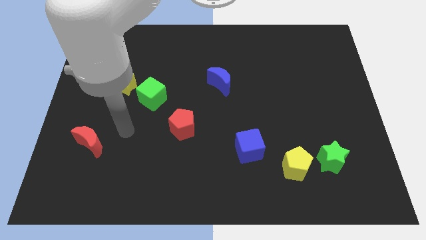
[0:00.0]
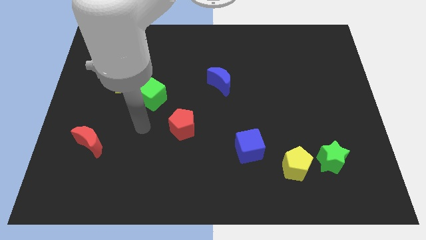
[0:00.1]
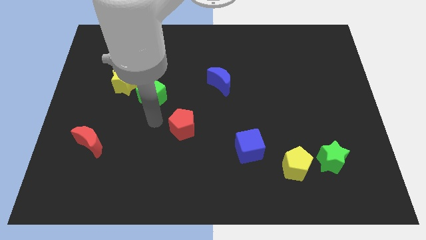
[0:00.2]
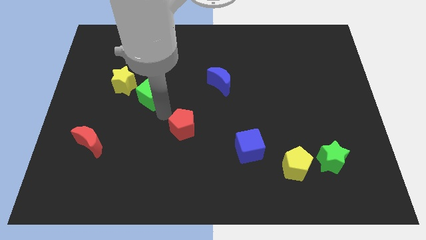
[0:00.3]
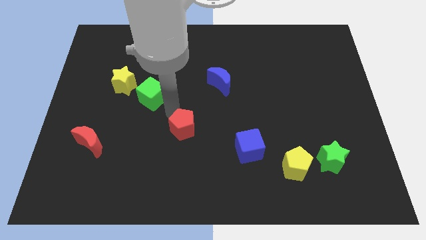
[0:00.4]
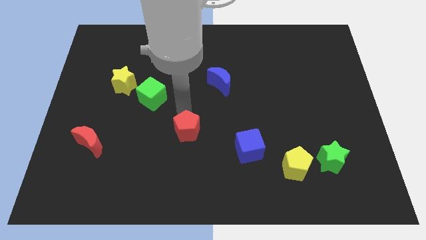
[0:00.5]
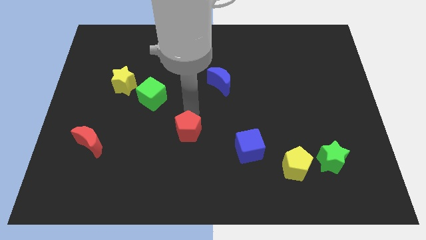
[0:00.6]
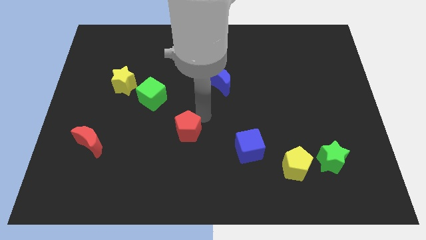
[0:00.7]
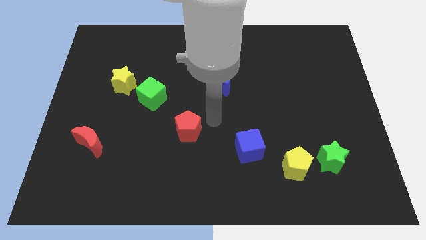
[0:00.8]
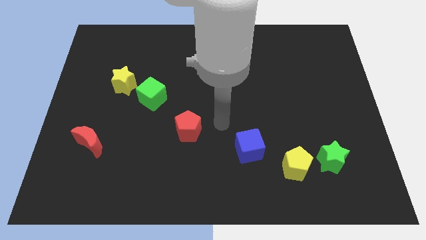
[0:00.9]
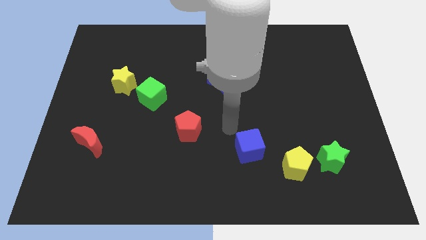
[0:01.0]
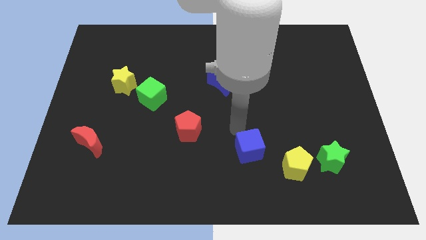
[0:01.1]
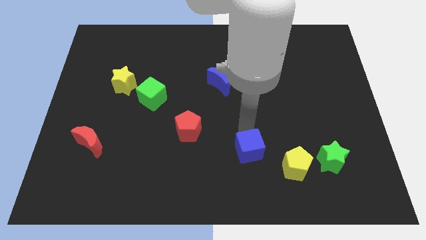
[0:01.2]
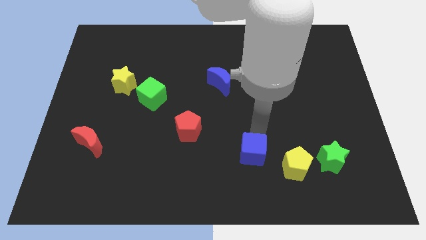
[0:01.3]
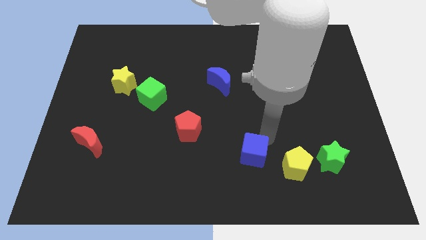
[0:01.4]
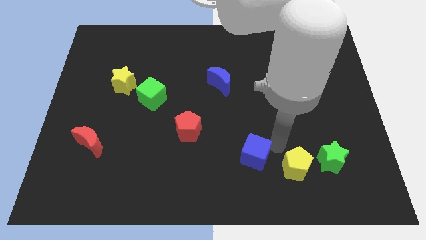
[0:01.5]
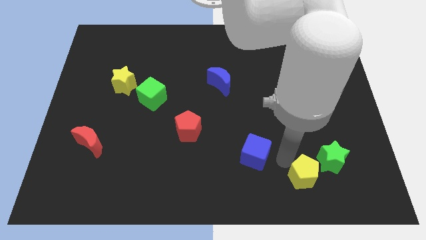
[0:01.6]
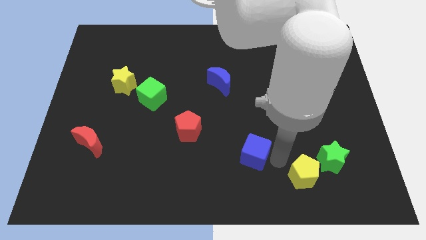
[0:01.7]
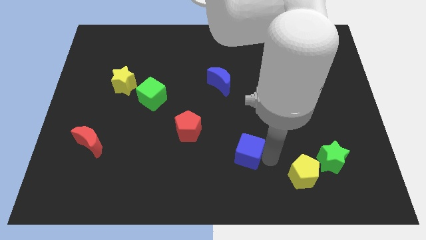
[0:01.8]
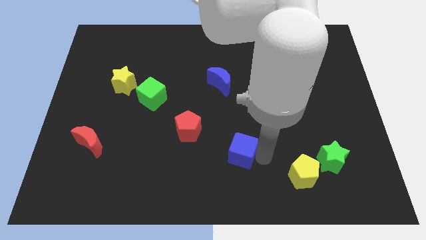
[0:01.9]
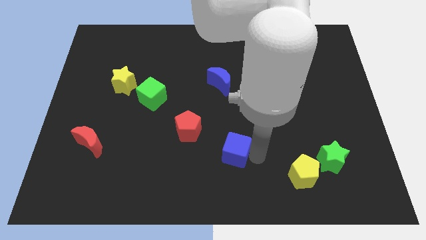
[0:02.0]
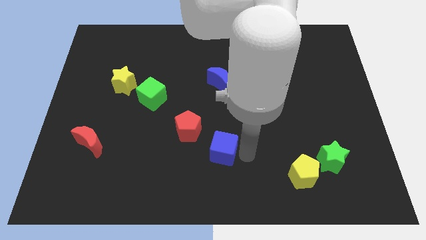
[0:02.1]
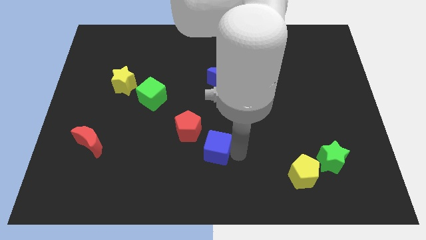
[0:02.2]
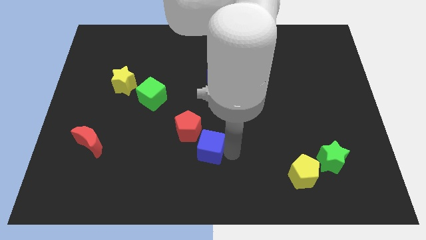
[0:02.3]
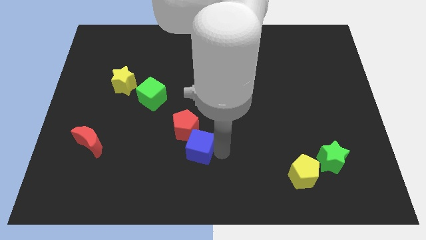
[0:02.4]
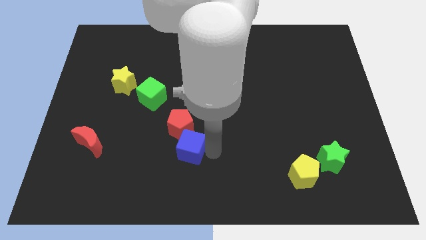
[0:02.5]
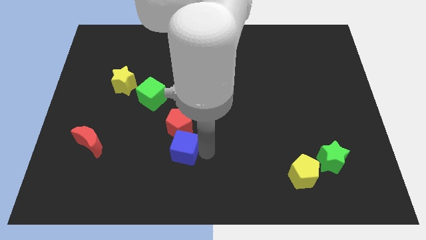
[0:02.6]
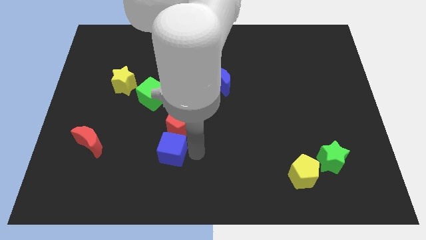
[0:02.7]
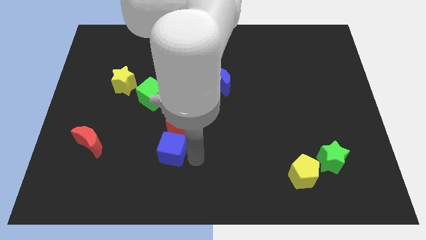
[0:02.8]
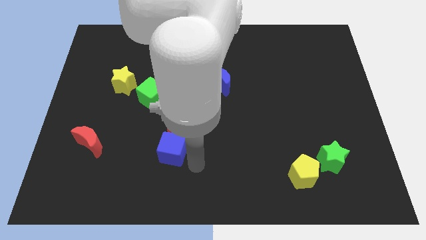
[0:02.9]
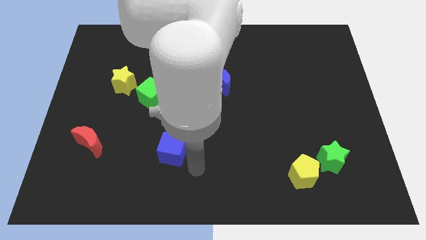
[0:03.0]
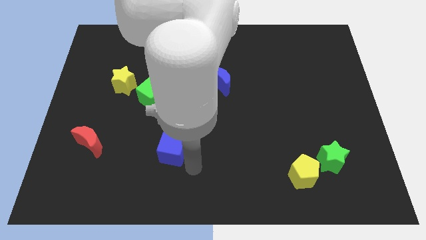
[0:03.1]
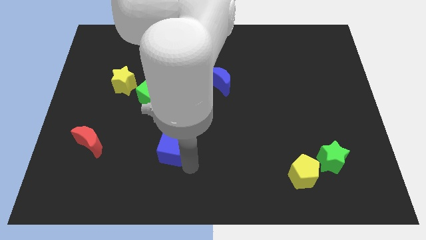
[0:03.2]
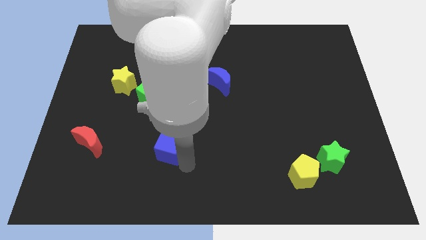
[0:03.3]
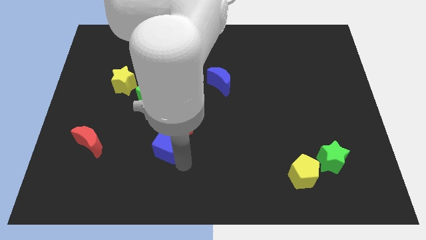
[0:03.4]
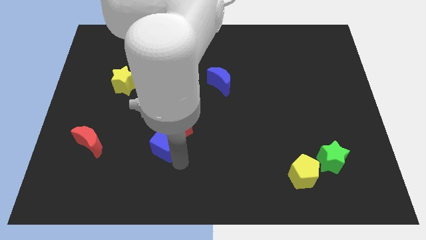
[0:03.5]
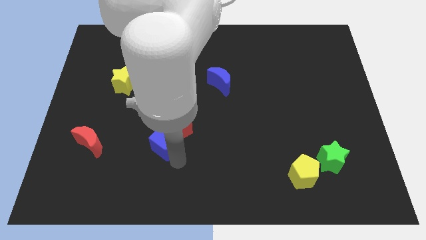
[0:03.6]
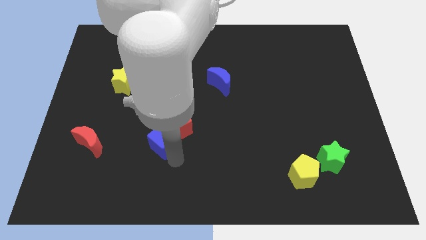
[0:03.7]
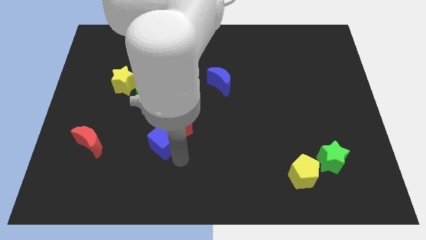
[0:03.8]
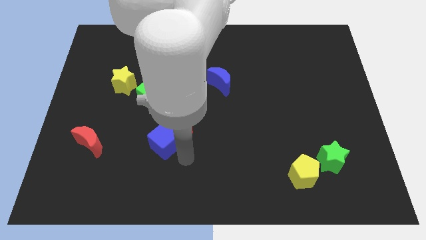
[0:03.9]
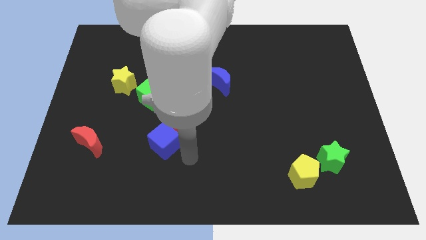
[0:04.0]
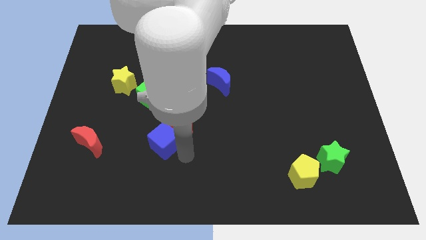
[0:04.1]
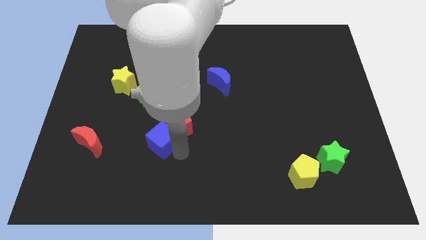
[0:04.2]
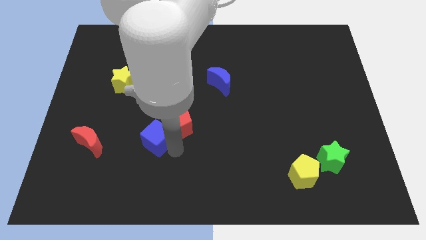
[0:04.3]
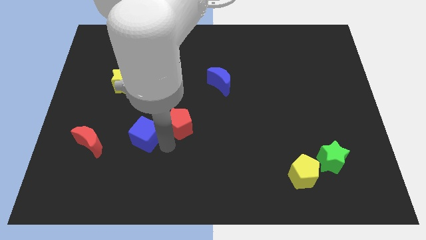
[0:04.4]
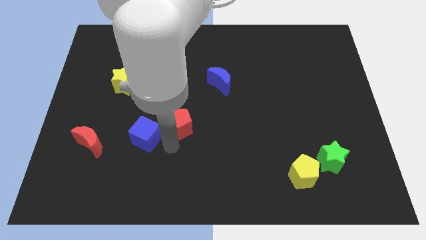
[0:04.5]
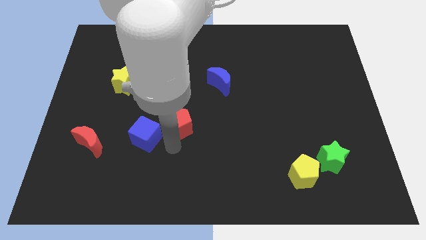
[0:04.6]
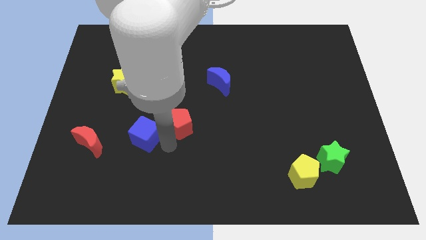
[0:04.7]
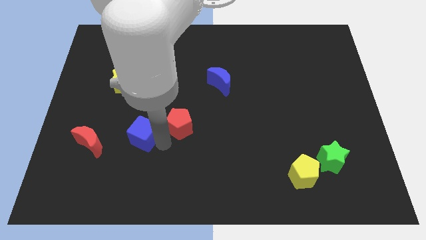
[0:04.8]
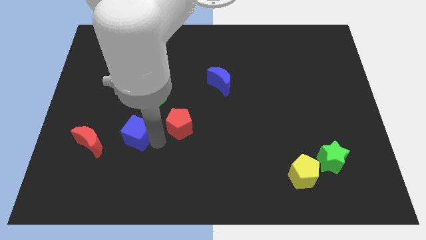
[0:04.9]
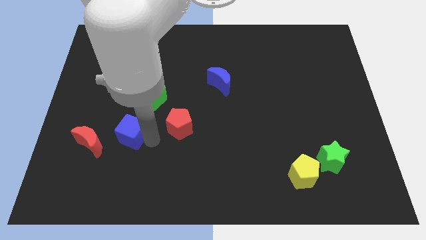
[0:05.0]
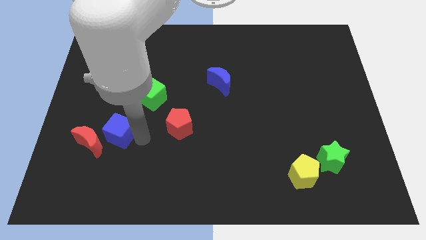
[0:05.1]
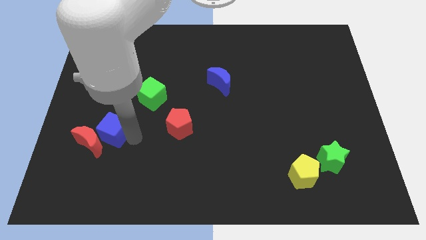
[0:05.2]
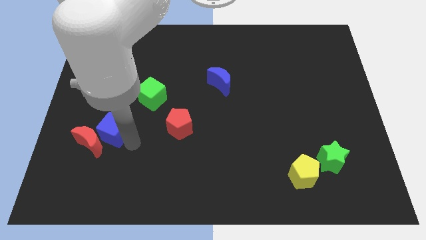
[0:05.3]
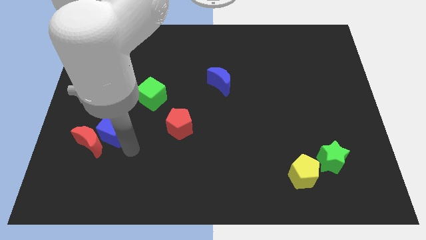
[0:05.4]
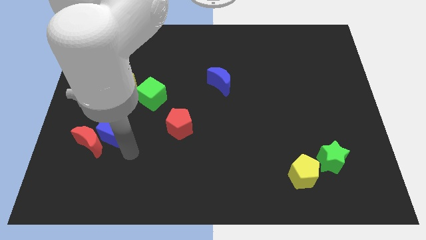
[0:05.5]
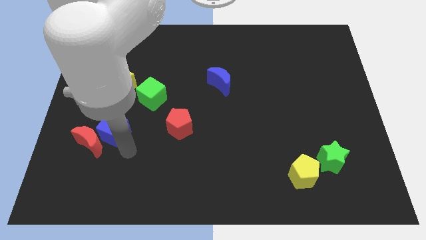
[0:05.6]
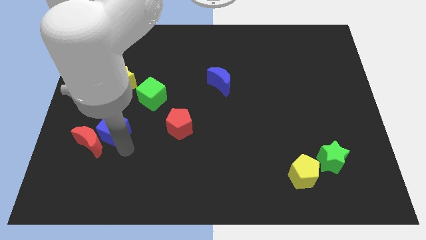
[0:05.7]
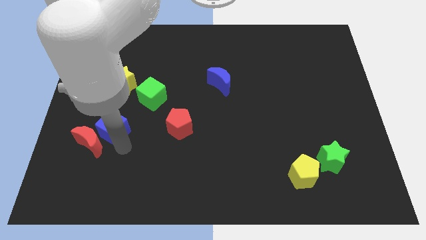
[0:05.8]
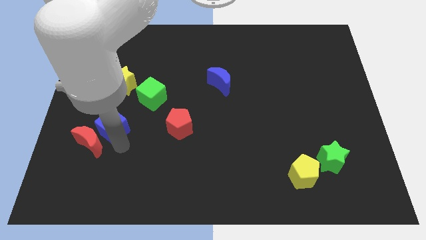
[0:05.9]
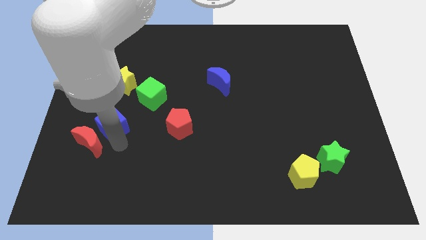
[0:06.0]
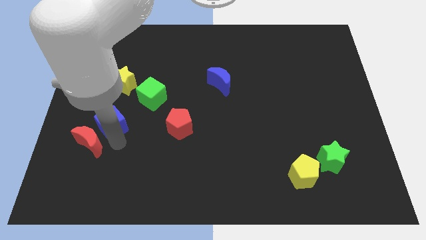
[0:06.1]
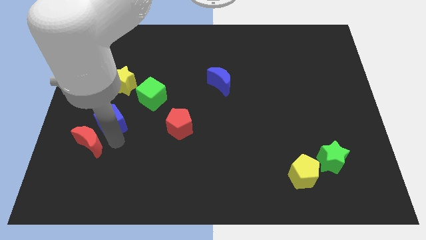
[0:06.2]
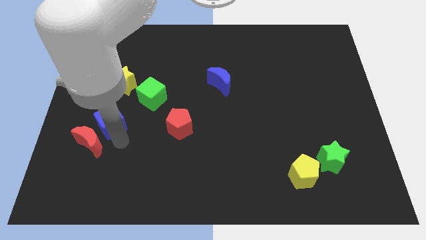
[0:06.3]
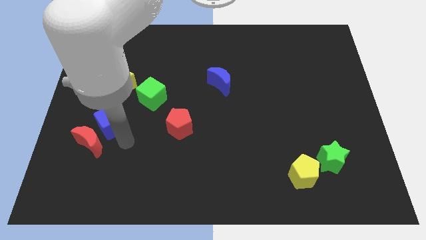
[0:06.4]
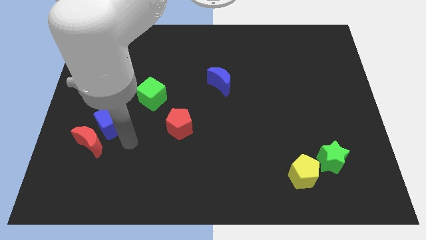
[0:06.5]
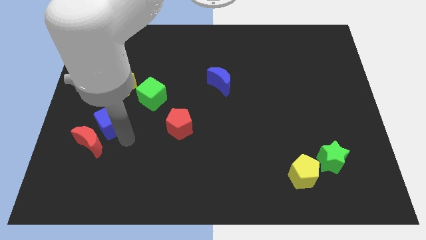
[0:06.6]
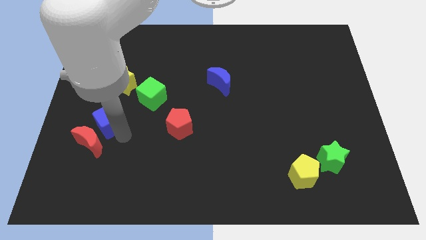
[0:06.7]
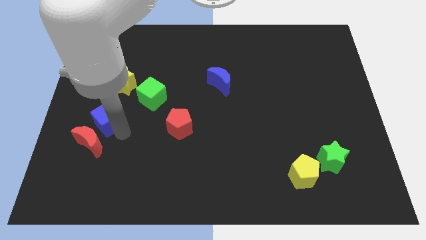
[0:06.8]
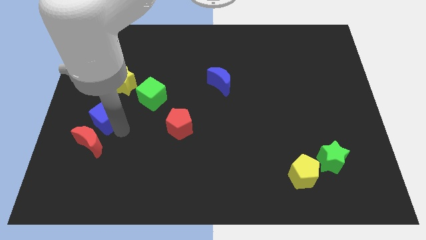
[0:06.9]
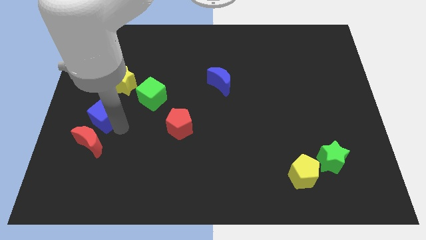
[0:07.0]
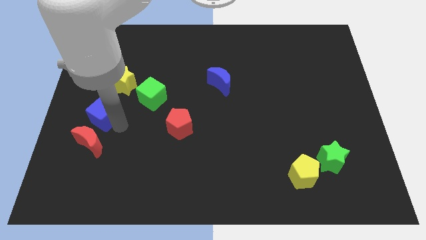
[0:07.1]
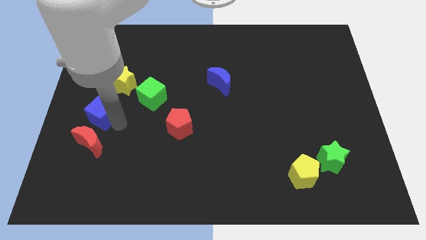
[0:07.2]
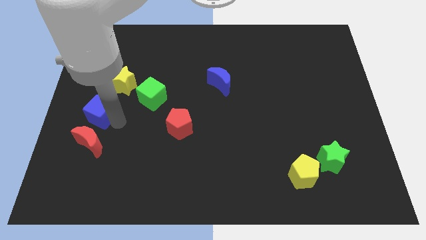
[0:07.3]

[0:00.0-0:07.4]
slide the blue cube to the left side
